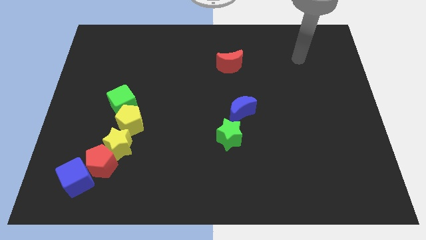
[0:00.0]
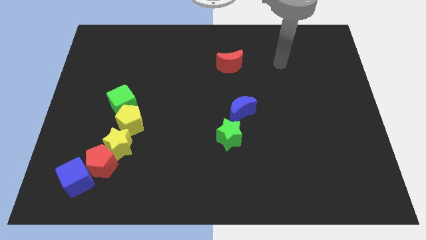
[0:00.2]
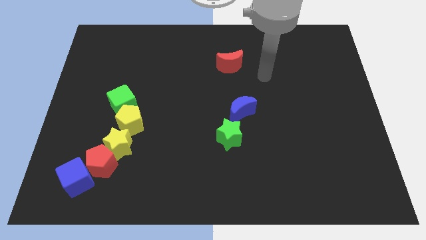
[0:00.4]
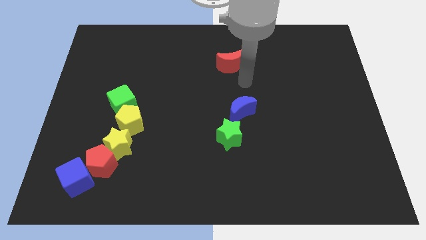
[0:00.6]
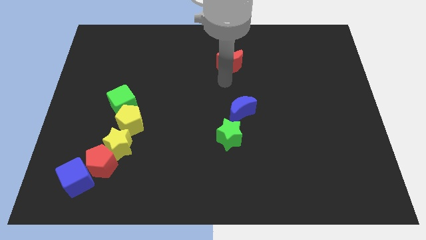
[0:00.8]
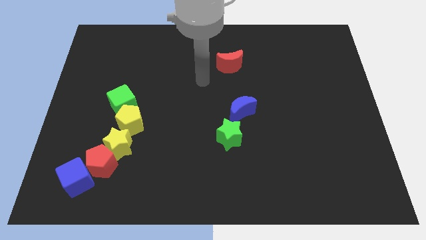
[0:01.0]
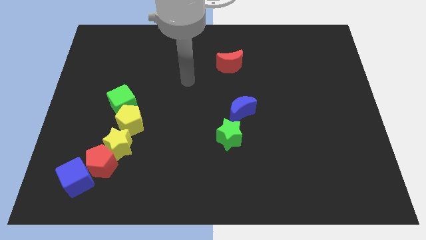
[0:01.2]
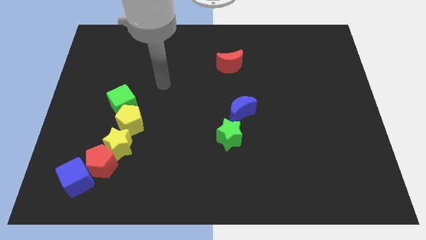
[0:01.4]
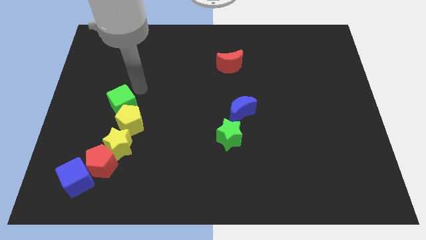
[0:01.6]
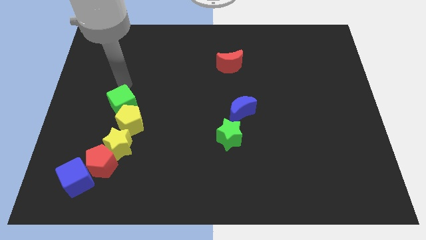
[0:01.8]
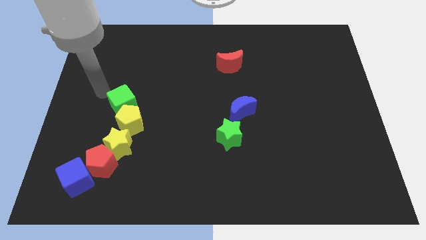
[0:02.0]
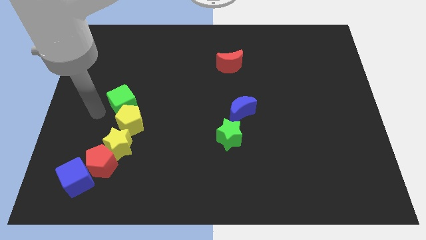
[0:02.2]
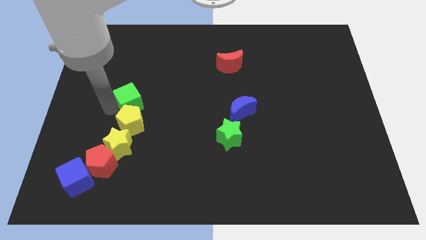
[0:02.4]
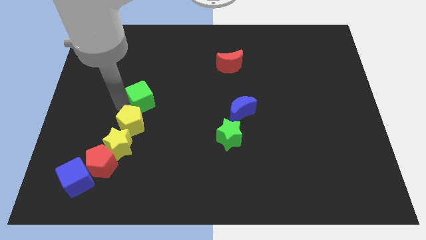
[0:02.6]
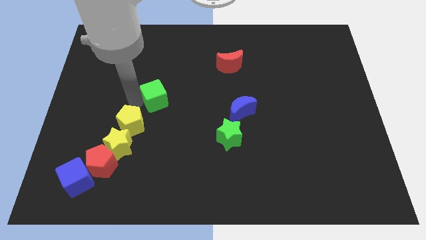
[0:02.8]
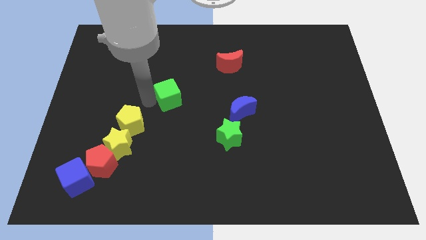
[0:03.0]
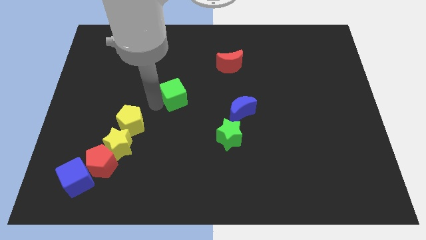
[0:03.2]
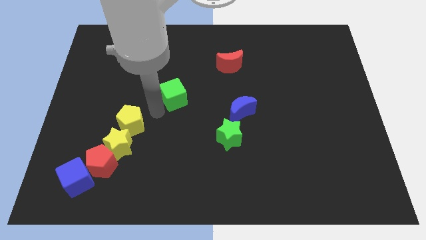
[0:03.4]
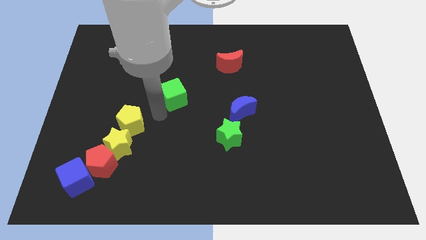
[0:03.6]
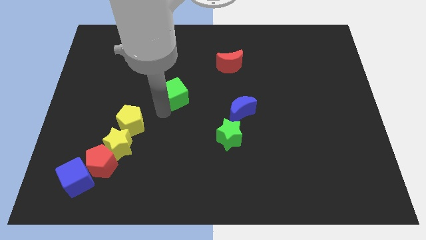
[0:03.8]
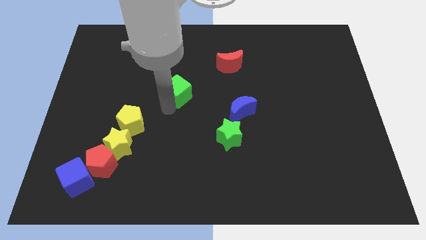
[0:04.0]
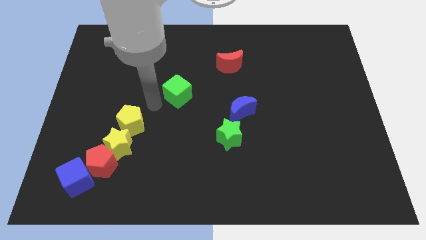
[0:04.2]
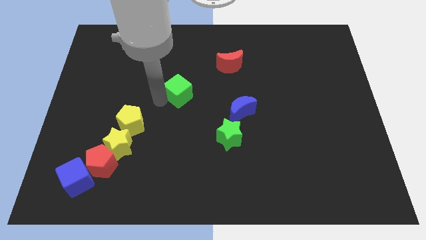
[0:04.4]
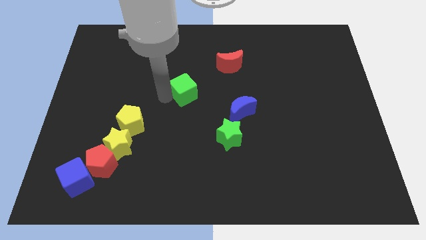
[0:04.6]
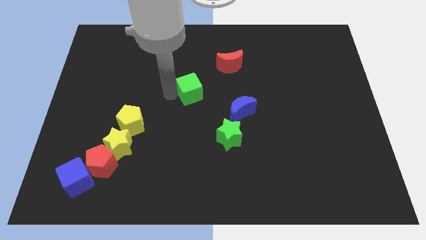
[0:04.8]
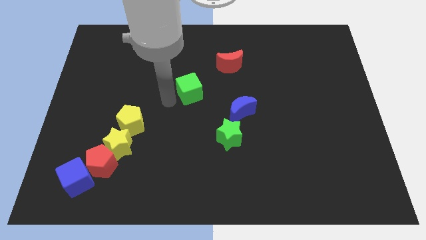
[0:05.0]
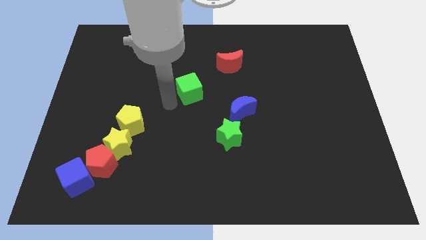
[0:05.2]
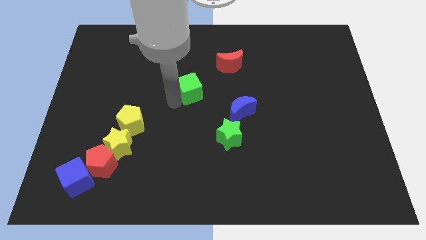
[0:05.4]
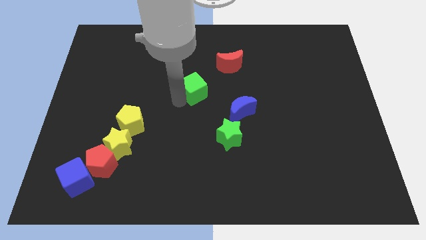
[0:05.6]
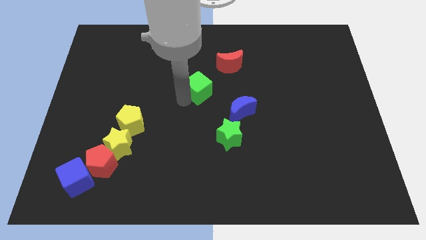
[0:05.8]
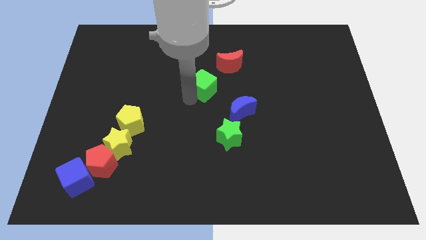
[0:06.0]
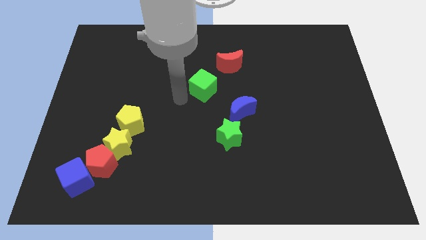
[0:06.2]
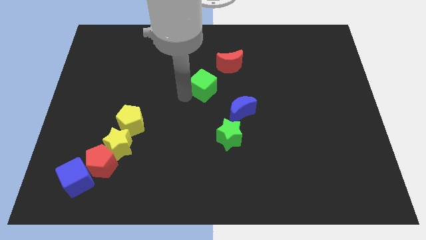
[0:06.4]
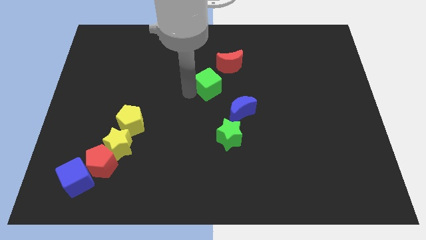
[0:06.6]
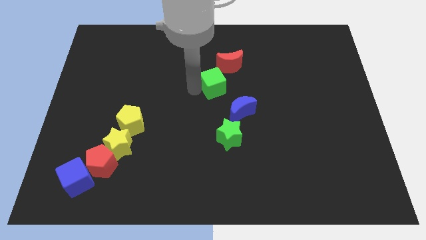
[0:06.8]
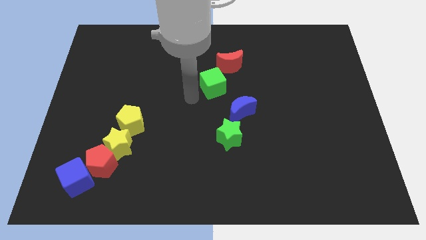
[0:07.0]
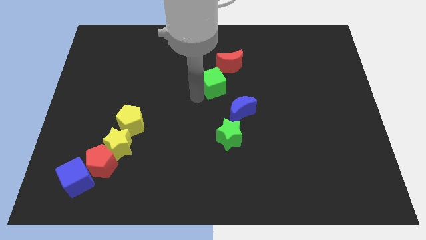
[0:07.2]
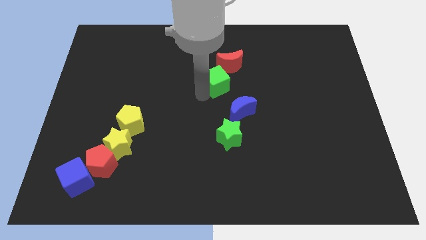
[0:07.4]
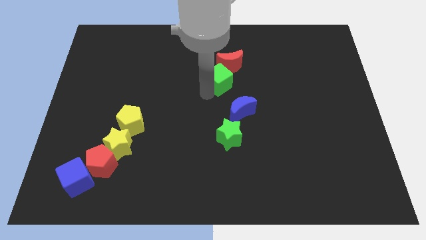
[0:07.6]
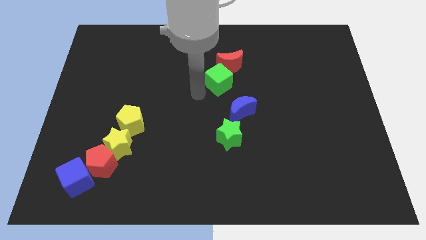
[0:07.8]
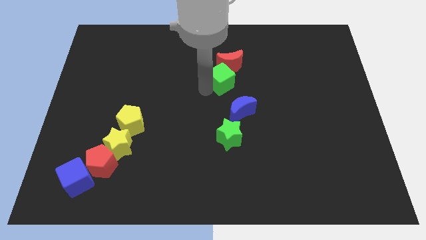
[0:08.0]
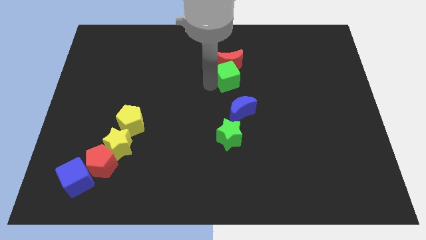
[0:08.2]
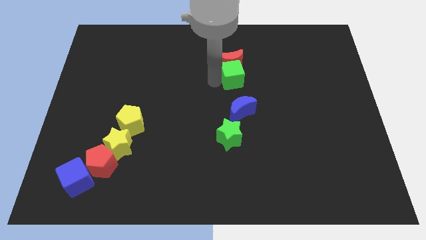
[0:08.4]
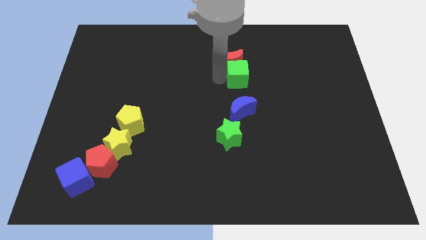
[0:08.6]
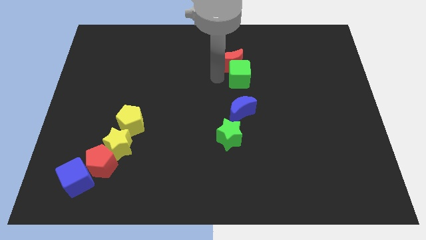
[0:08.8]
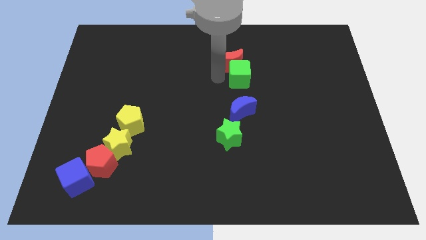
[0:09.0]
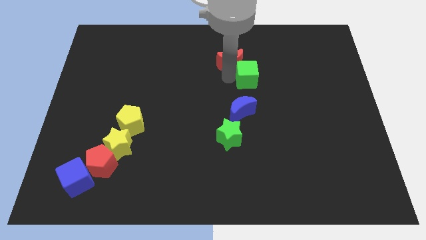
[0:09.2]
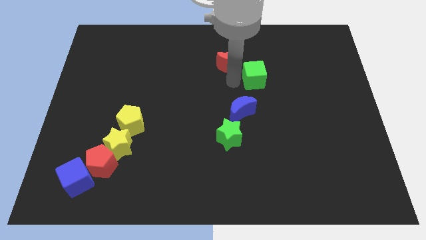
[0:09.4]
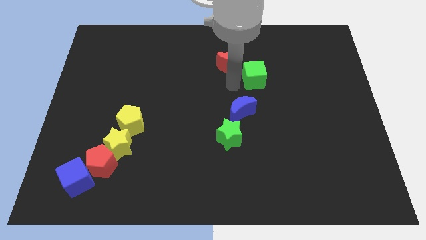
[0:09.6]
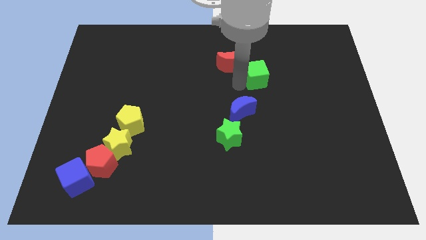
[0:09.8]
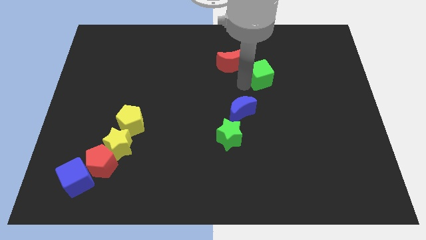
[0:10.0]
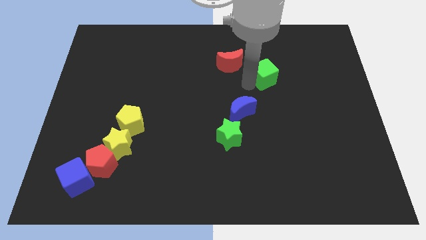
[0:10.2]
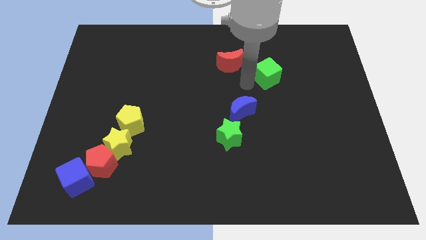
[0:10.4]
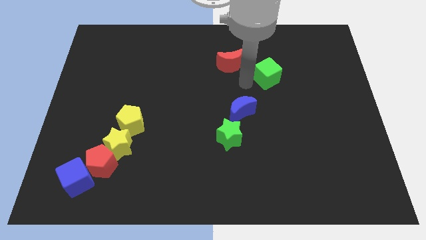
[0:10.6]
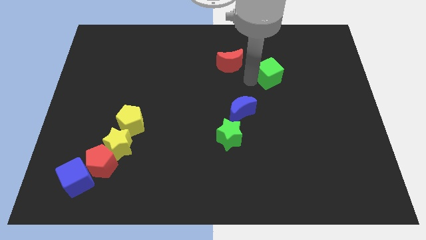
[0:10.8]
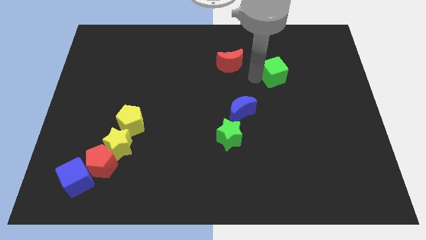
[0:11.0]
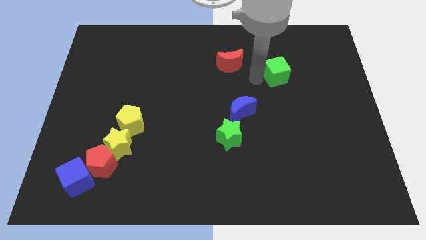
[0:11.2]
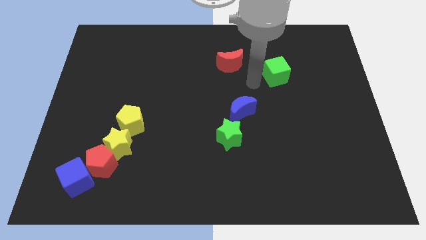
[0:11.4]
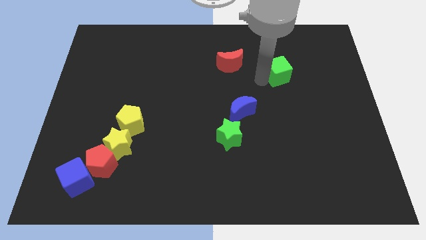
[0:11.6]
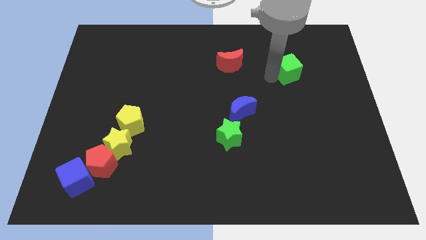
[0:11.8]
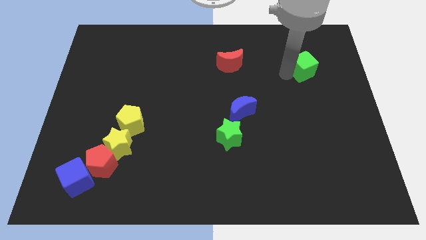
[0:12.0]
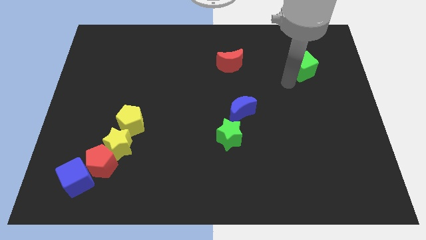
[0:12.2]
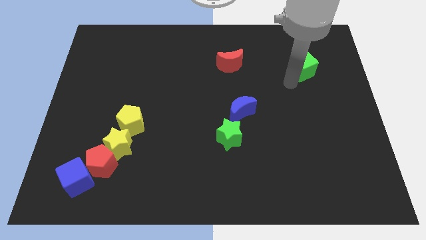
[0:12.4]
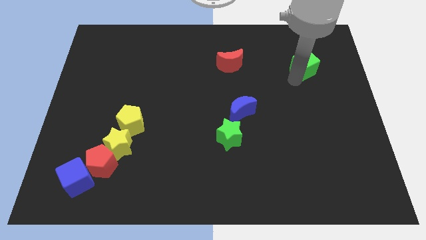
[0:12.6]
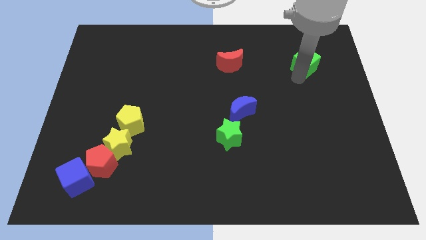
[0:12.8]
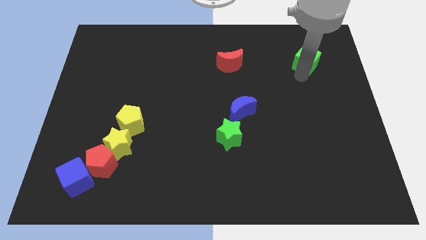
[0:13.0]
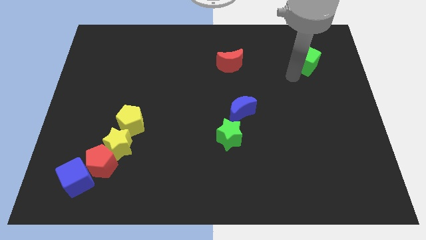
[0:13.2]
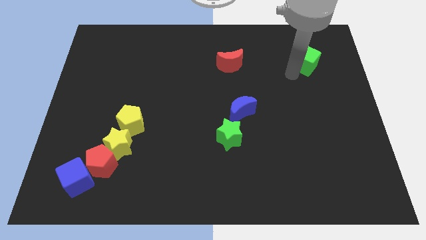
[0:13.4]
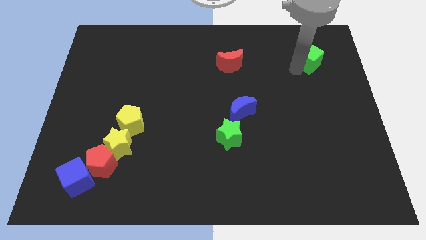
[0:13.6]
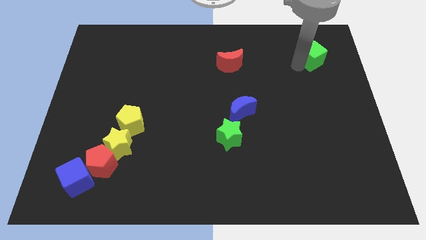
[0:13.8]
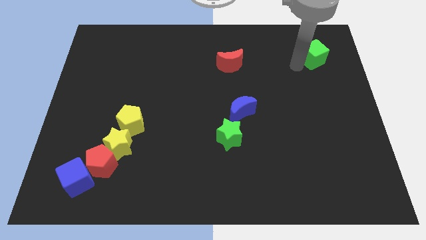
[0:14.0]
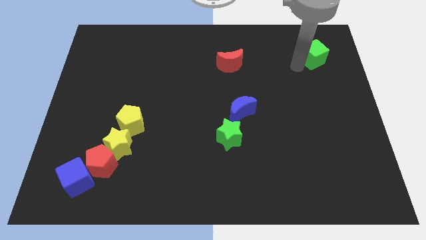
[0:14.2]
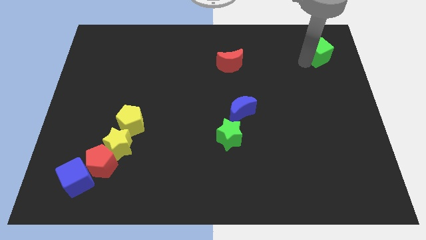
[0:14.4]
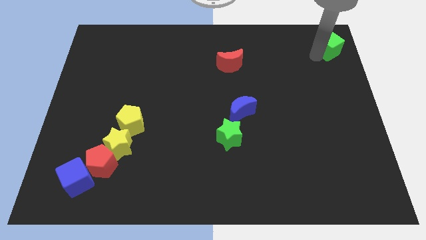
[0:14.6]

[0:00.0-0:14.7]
move the green cube to the top right corner

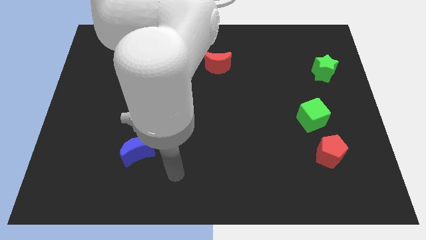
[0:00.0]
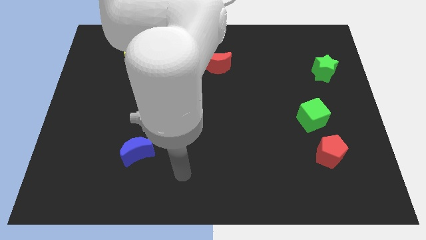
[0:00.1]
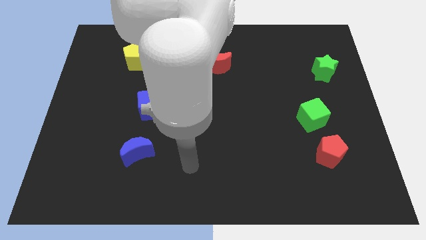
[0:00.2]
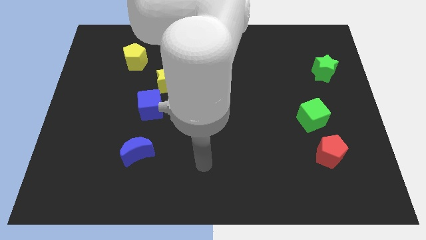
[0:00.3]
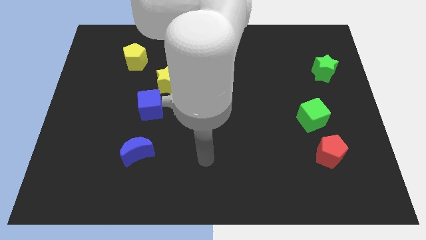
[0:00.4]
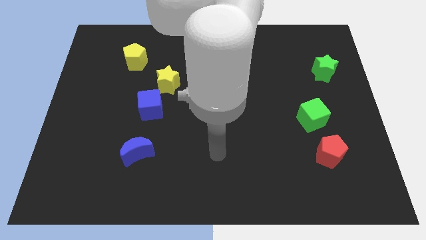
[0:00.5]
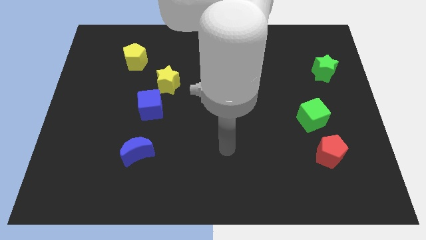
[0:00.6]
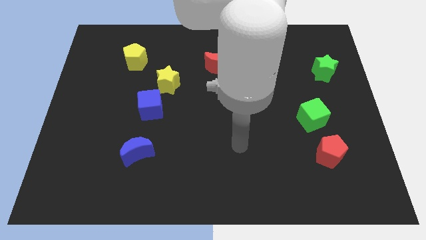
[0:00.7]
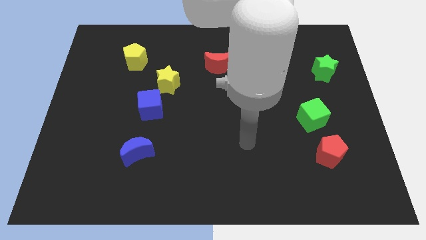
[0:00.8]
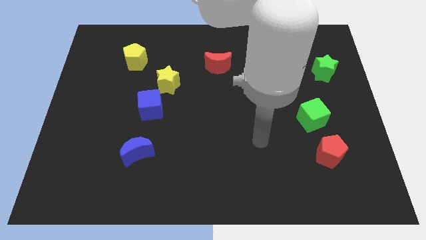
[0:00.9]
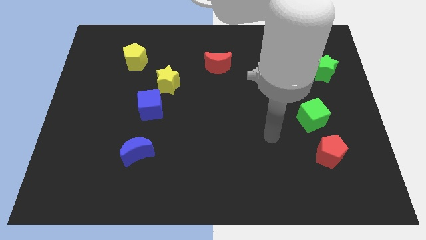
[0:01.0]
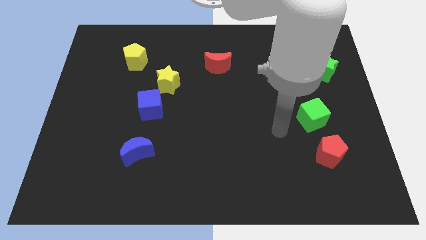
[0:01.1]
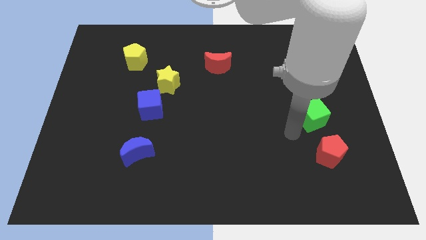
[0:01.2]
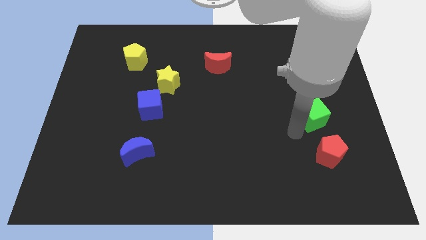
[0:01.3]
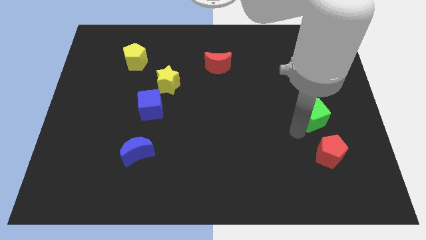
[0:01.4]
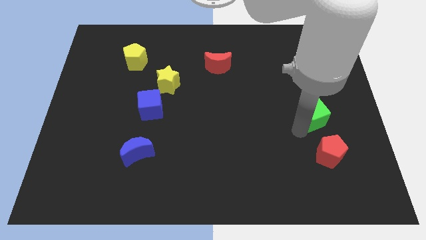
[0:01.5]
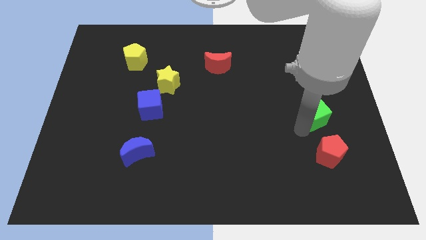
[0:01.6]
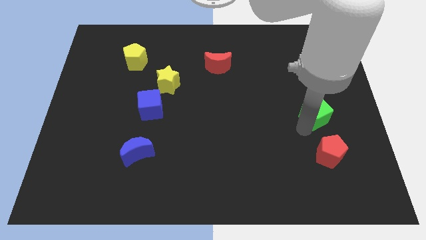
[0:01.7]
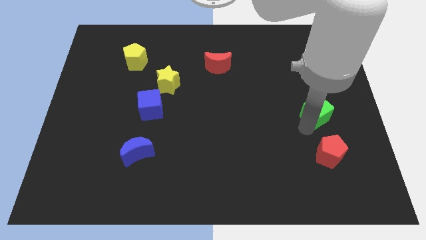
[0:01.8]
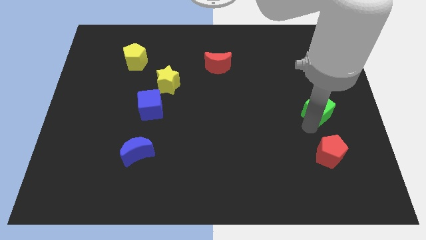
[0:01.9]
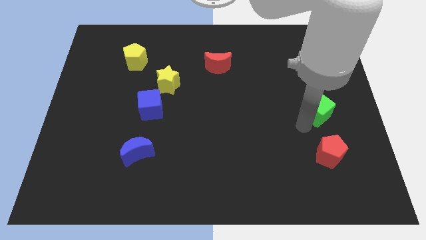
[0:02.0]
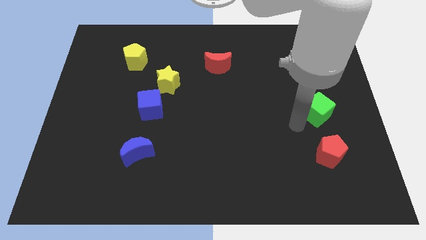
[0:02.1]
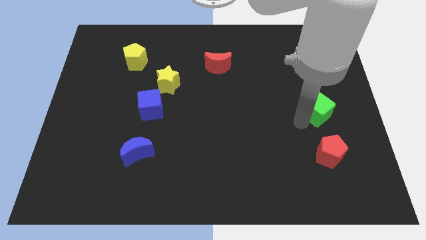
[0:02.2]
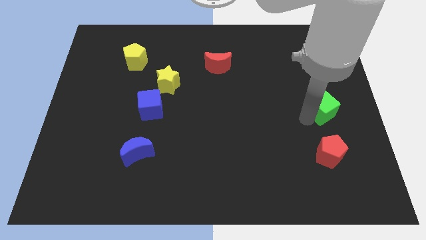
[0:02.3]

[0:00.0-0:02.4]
push the green cube to the right side of the board
